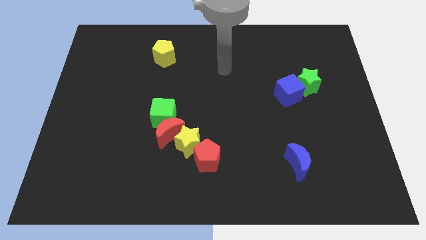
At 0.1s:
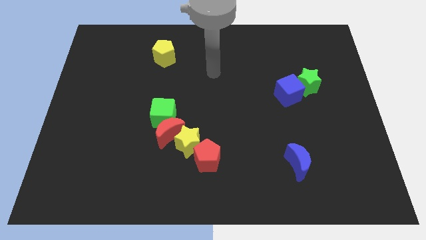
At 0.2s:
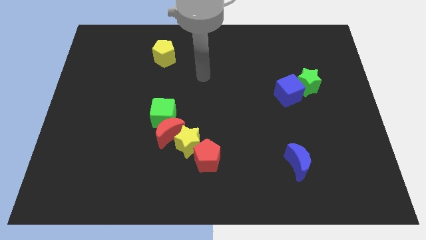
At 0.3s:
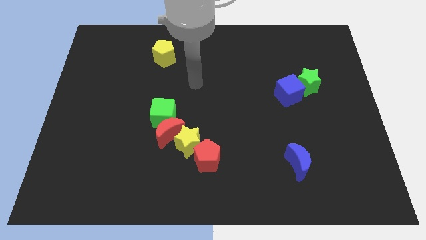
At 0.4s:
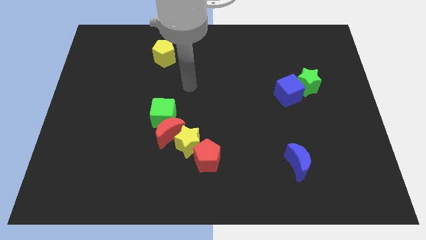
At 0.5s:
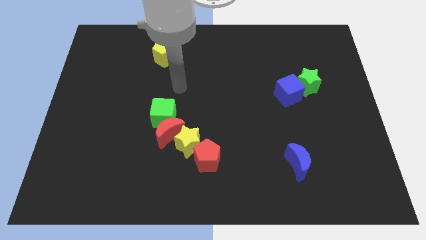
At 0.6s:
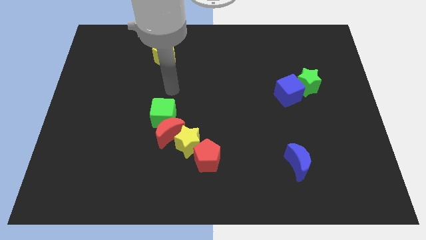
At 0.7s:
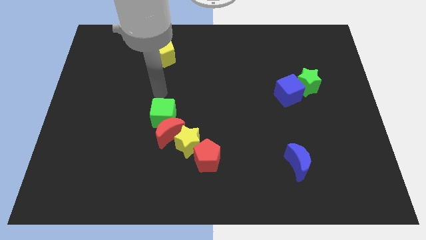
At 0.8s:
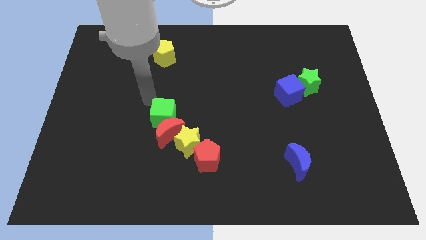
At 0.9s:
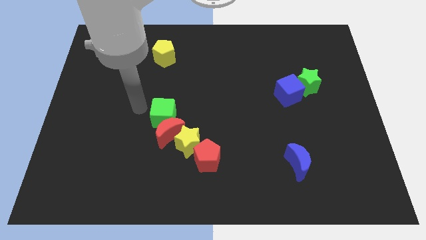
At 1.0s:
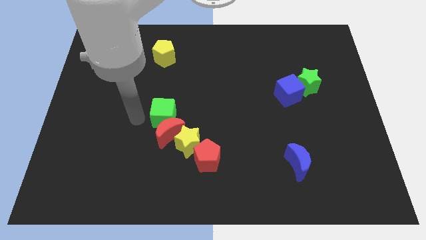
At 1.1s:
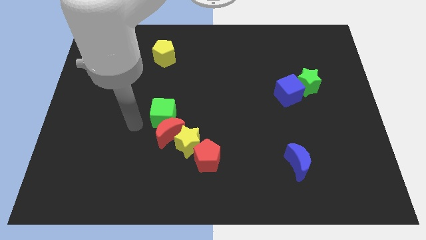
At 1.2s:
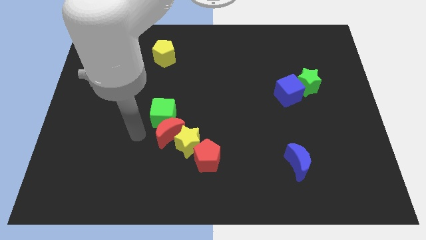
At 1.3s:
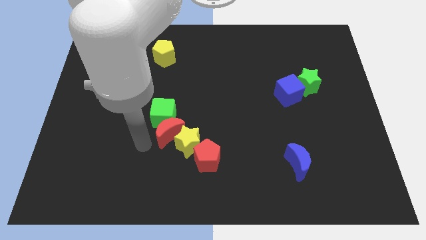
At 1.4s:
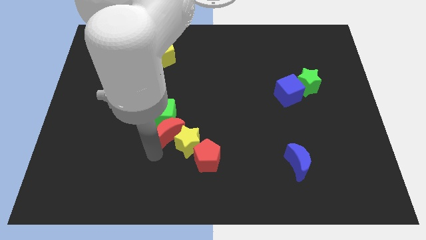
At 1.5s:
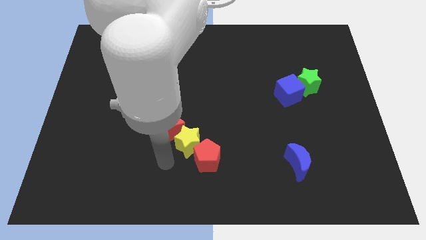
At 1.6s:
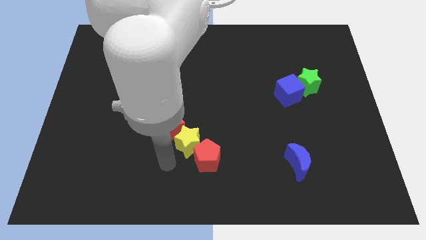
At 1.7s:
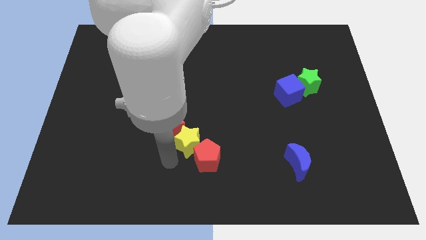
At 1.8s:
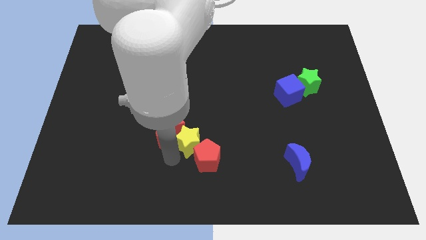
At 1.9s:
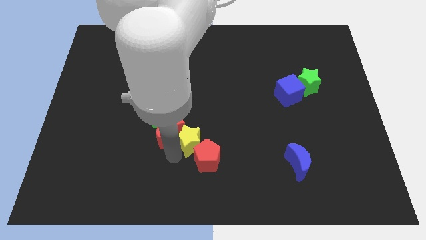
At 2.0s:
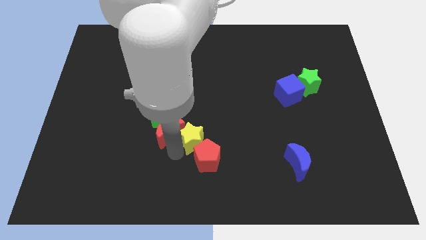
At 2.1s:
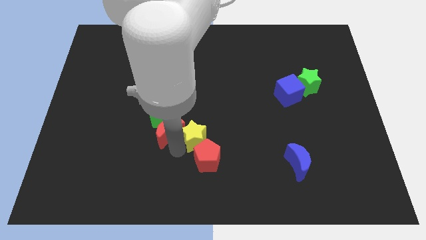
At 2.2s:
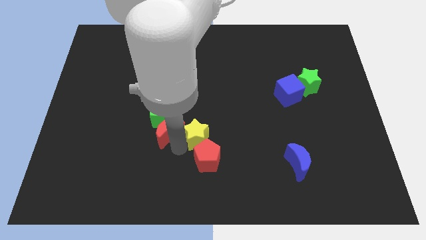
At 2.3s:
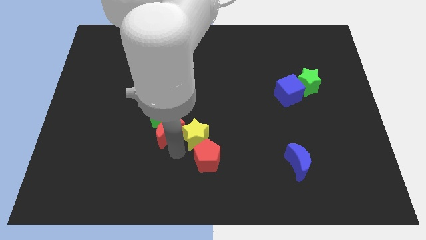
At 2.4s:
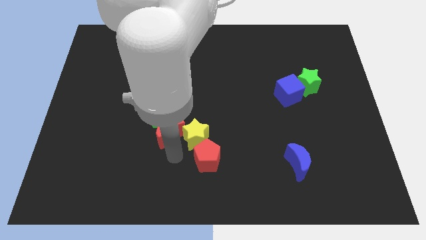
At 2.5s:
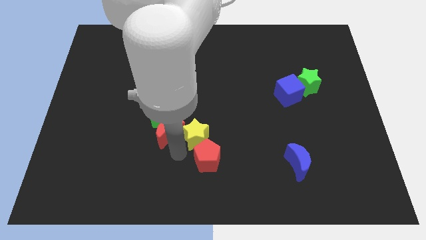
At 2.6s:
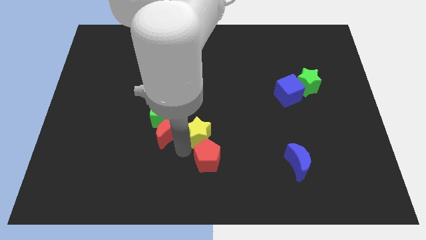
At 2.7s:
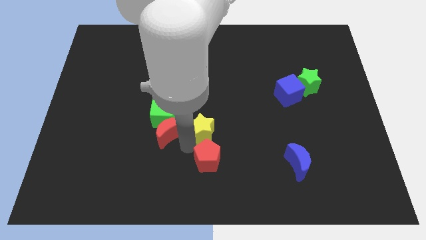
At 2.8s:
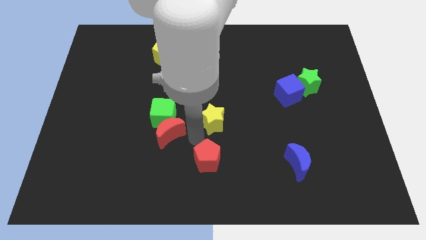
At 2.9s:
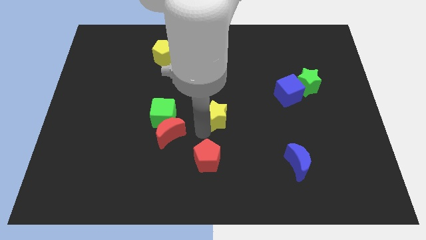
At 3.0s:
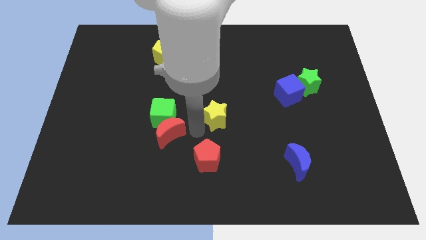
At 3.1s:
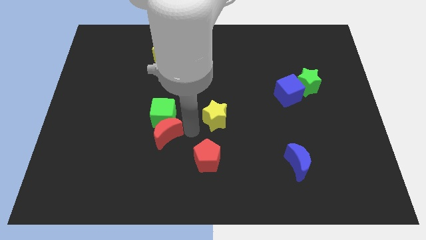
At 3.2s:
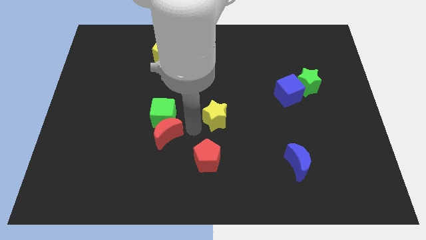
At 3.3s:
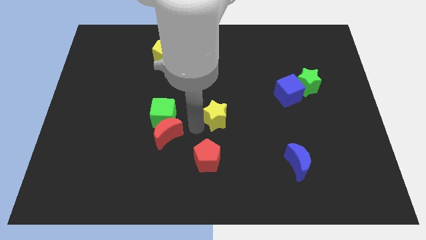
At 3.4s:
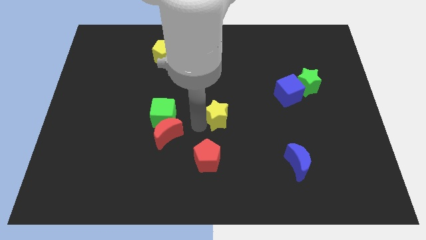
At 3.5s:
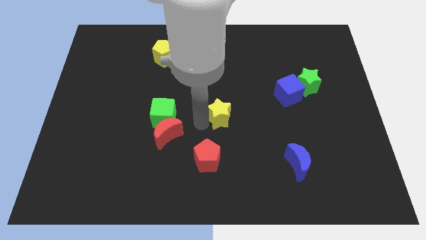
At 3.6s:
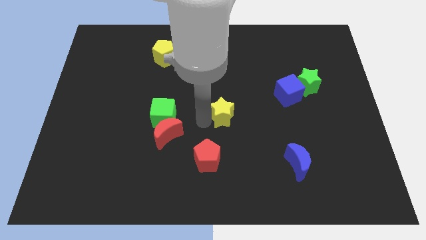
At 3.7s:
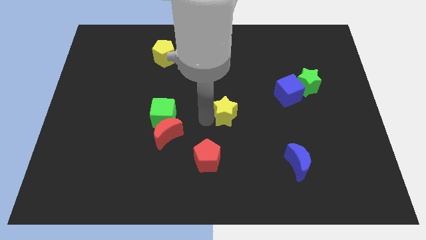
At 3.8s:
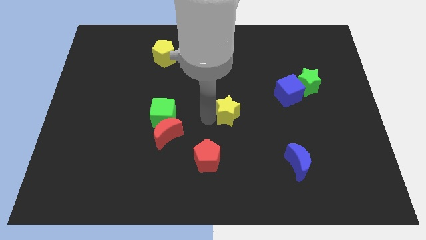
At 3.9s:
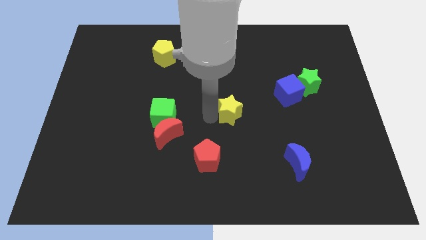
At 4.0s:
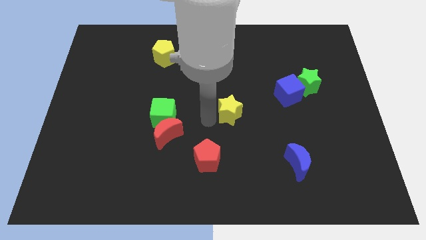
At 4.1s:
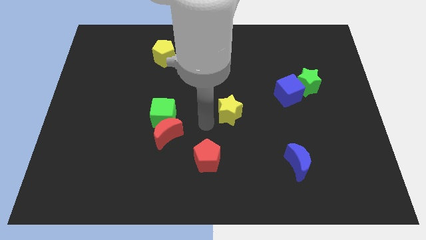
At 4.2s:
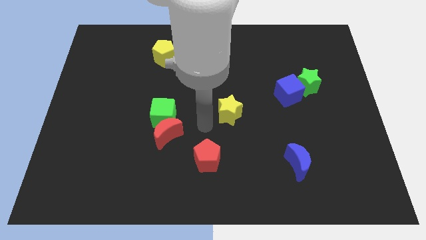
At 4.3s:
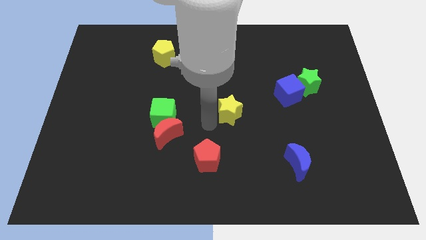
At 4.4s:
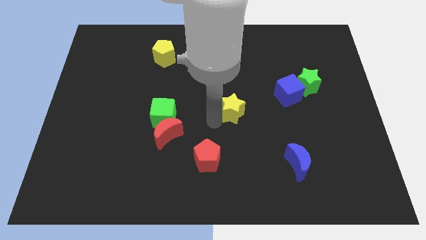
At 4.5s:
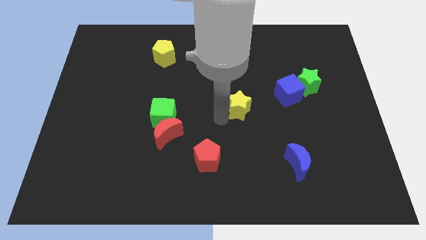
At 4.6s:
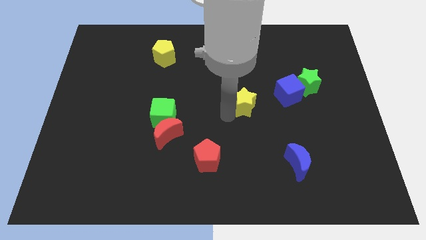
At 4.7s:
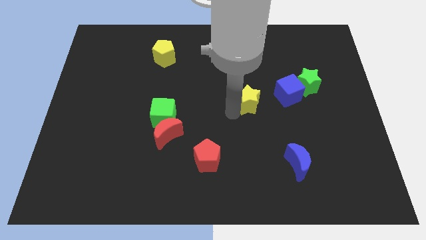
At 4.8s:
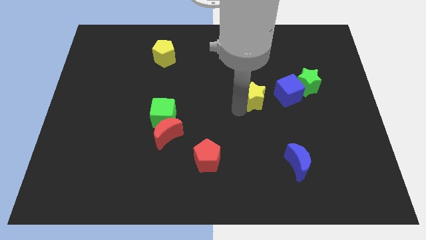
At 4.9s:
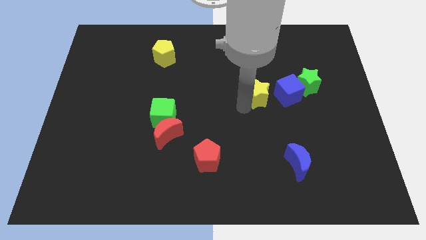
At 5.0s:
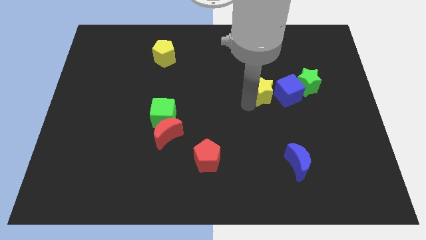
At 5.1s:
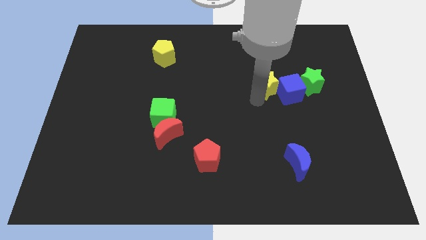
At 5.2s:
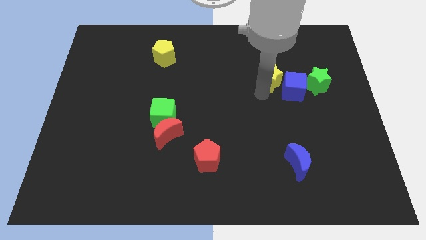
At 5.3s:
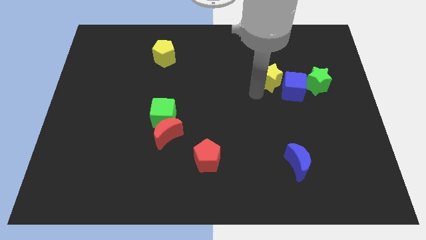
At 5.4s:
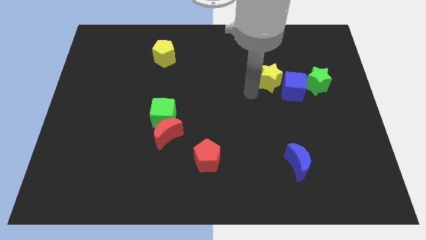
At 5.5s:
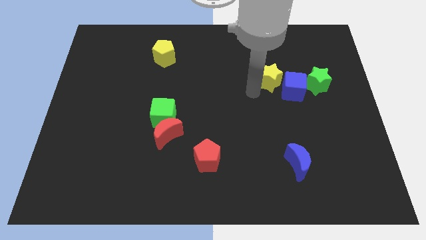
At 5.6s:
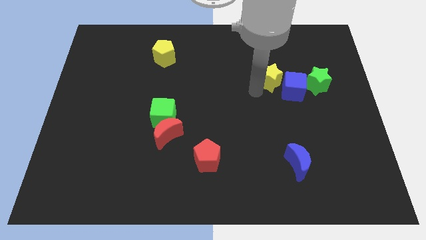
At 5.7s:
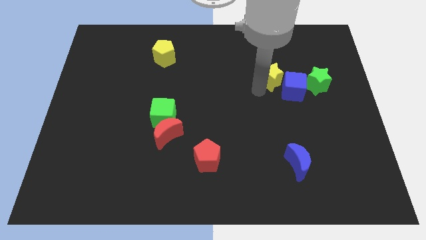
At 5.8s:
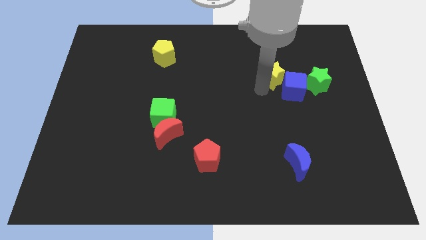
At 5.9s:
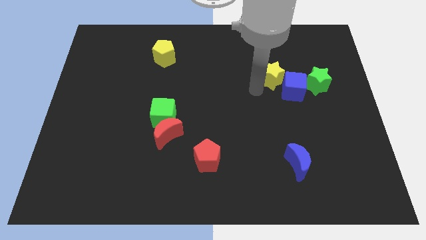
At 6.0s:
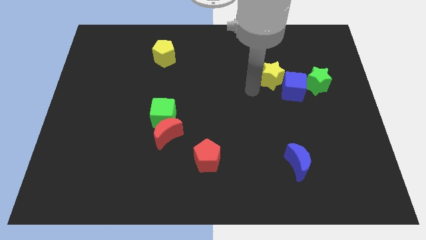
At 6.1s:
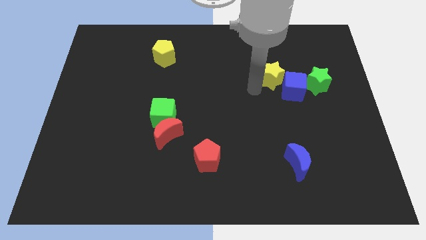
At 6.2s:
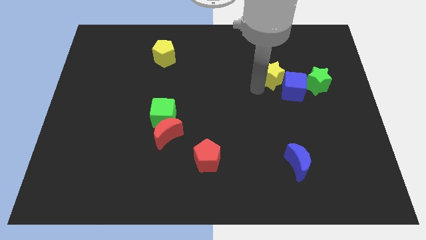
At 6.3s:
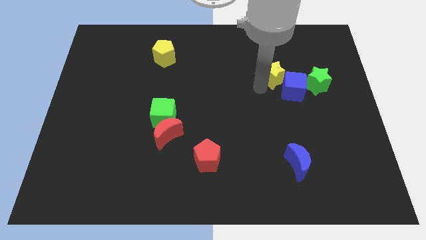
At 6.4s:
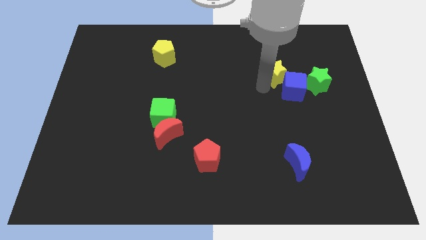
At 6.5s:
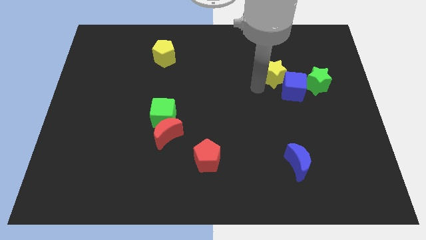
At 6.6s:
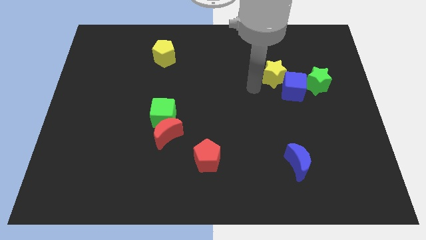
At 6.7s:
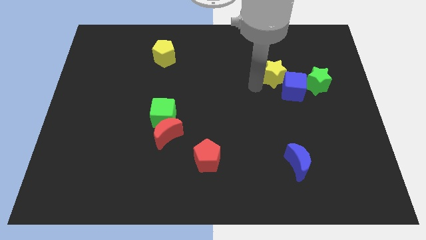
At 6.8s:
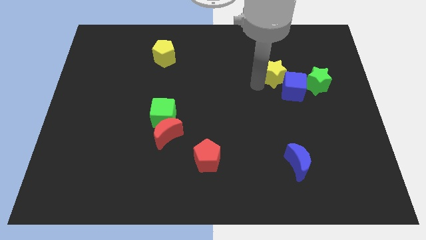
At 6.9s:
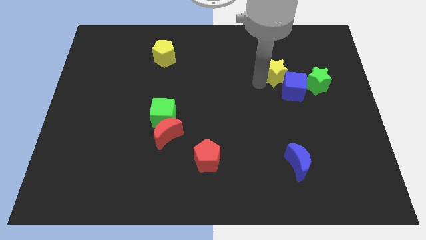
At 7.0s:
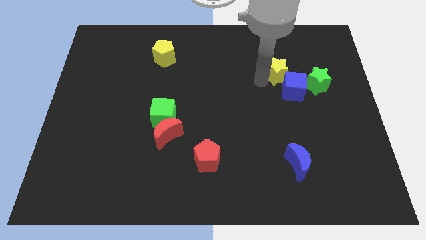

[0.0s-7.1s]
move the yellow star to the top left side of the green star
